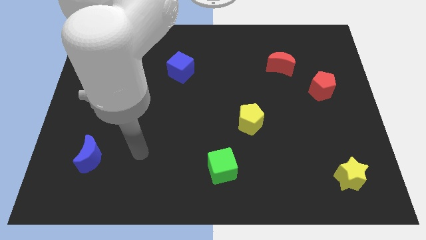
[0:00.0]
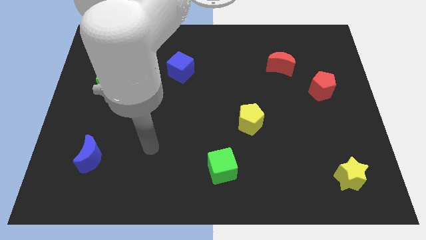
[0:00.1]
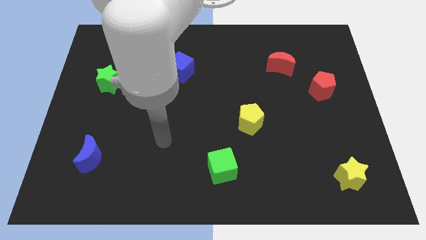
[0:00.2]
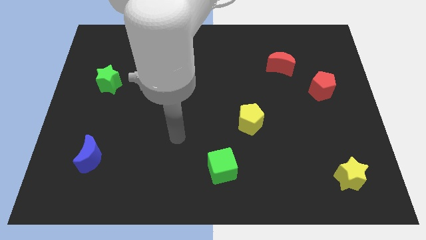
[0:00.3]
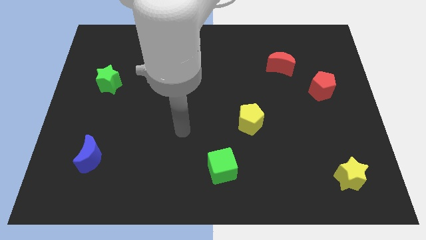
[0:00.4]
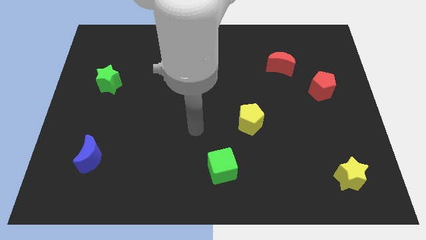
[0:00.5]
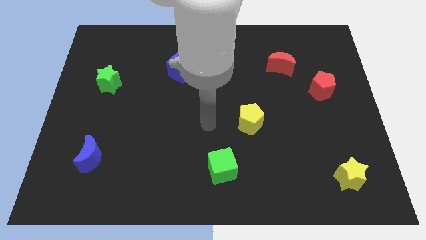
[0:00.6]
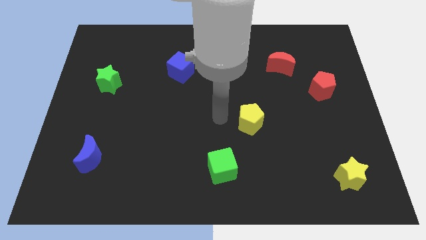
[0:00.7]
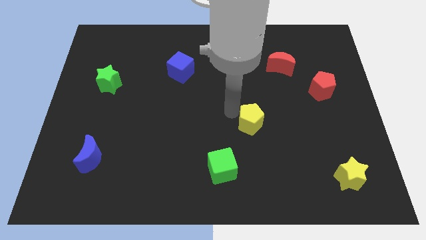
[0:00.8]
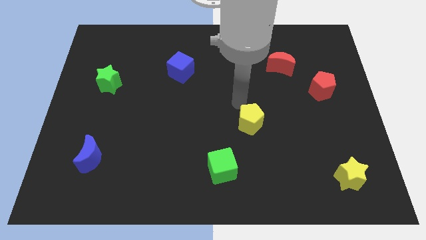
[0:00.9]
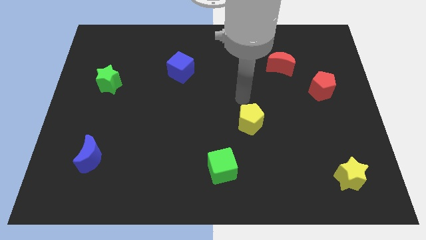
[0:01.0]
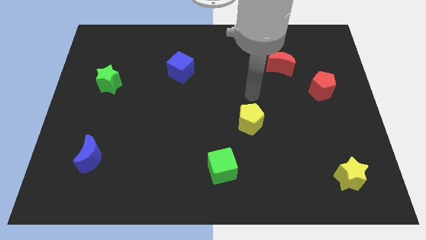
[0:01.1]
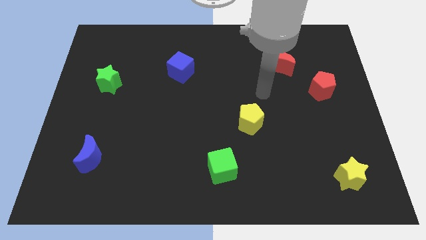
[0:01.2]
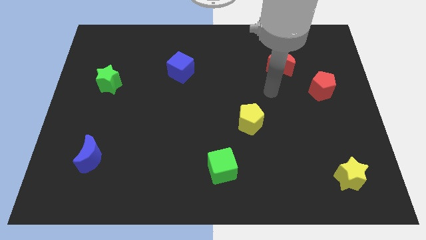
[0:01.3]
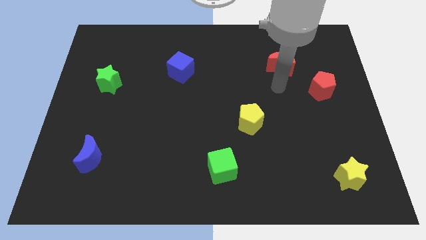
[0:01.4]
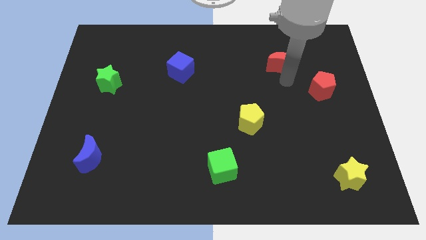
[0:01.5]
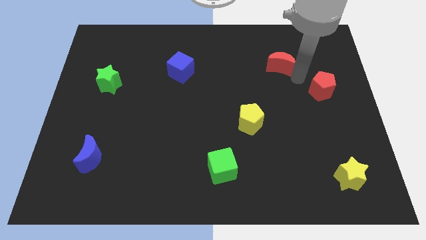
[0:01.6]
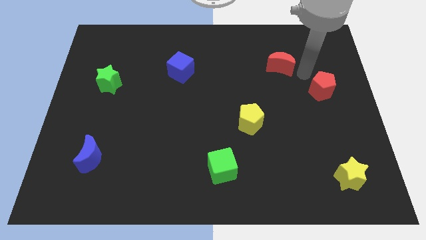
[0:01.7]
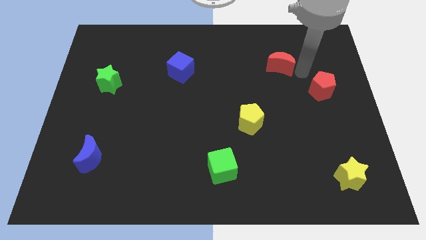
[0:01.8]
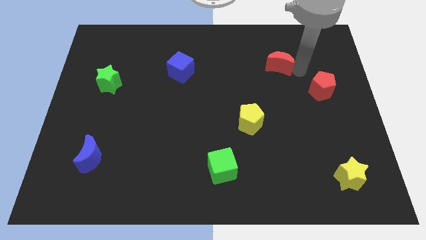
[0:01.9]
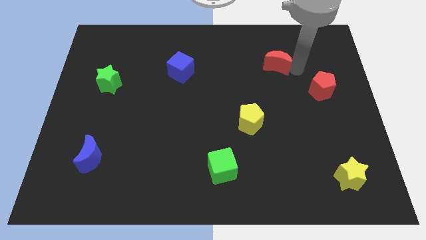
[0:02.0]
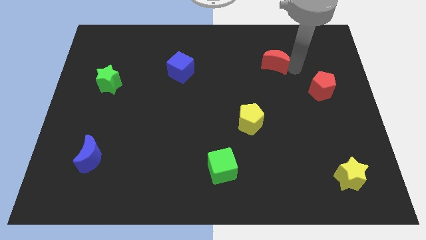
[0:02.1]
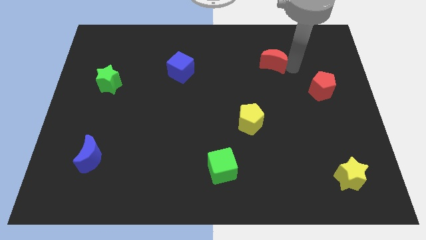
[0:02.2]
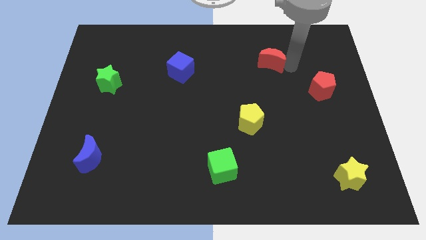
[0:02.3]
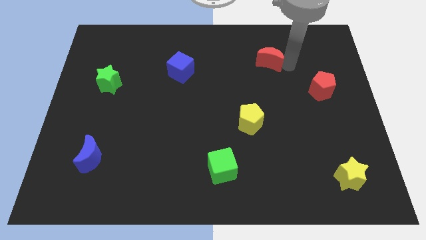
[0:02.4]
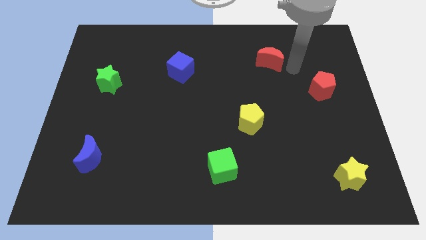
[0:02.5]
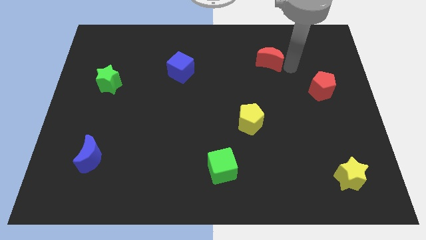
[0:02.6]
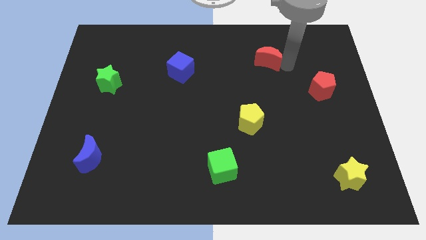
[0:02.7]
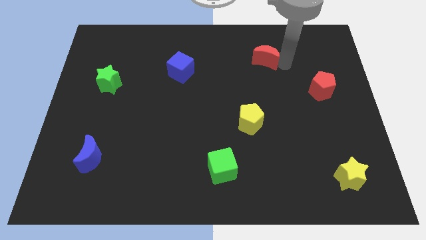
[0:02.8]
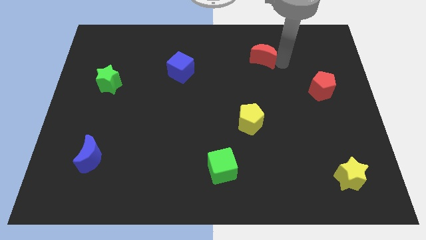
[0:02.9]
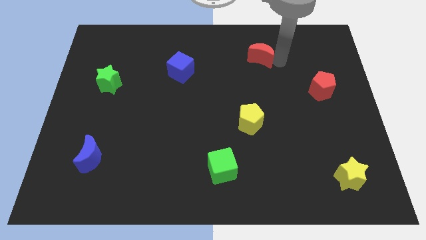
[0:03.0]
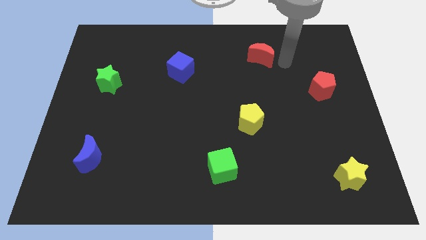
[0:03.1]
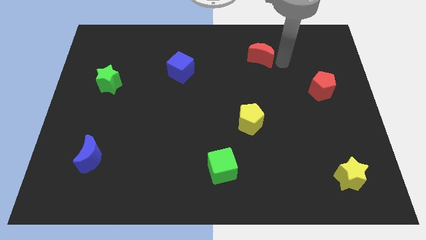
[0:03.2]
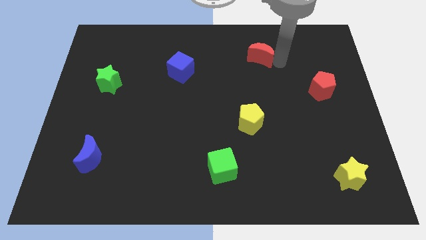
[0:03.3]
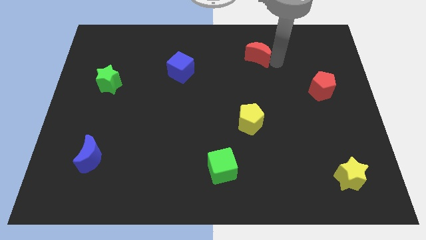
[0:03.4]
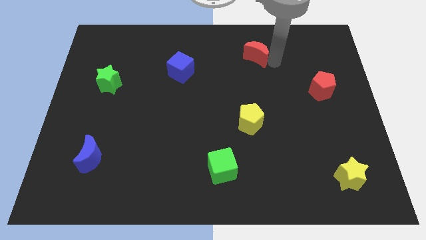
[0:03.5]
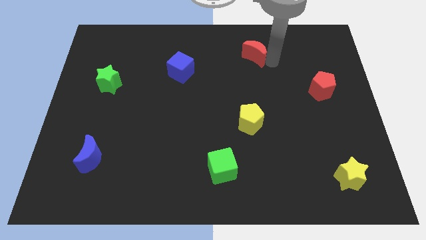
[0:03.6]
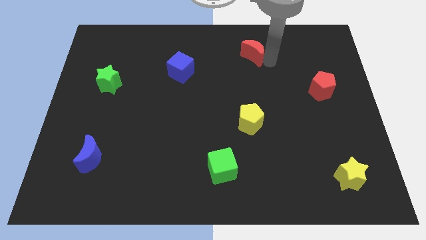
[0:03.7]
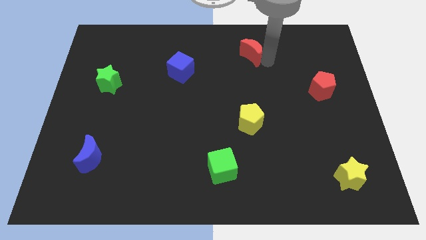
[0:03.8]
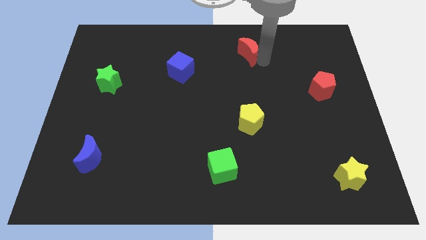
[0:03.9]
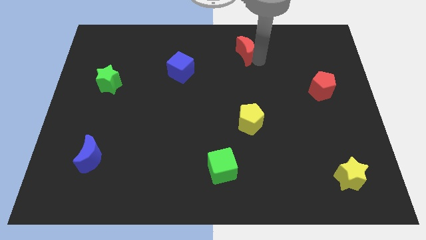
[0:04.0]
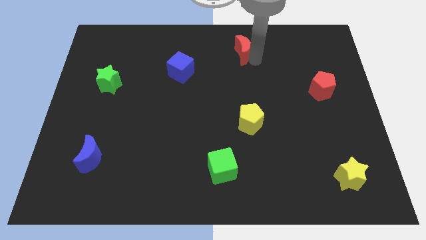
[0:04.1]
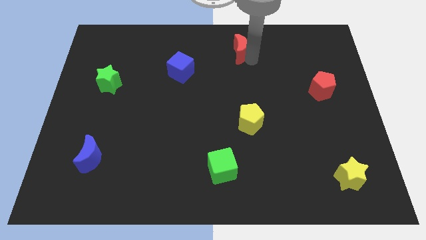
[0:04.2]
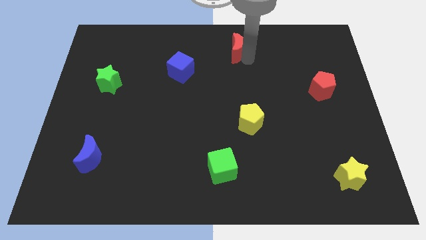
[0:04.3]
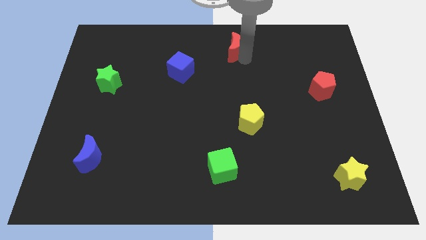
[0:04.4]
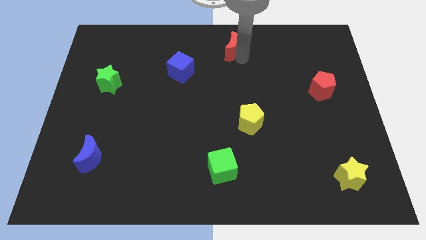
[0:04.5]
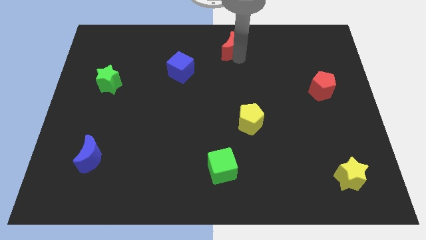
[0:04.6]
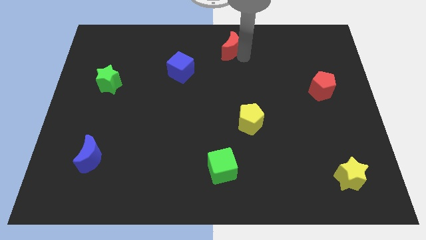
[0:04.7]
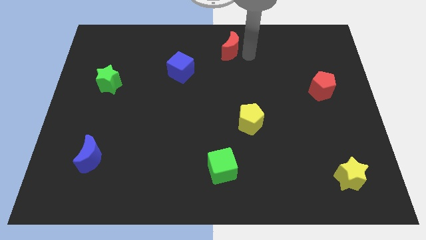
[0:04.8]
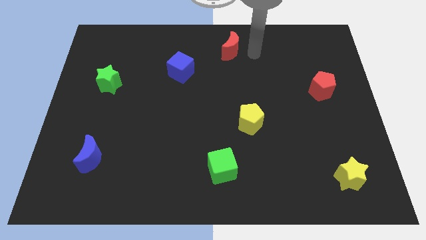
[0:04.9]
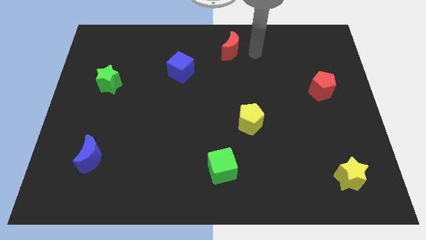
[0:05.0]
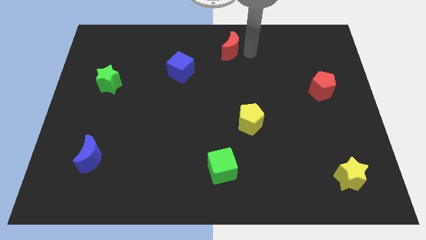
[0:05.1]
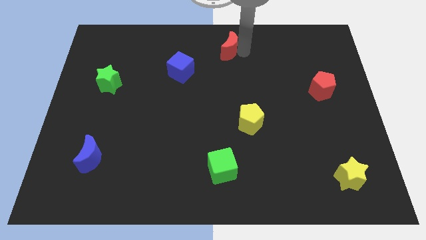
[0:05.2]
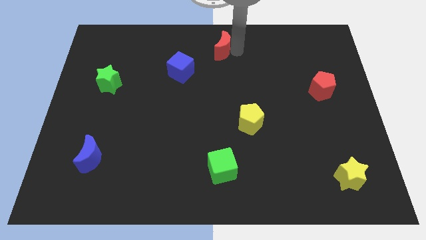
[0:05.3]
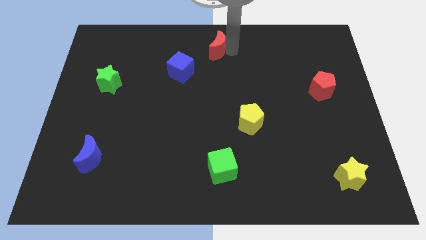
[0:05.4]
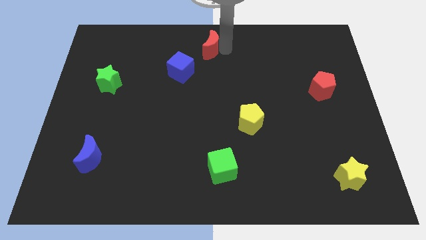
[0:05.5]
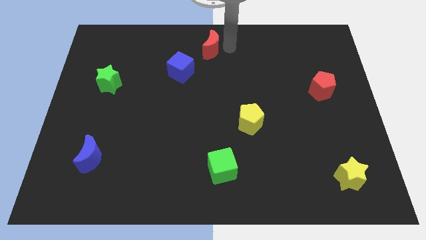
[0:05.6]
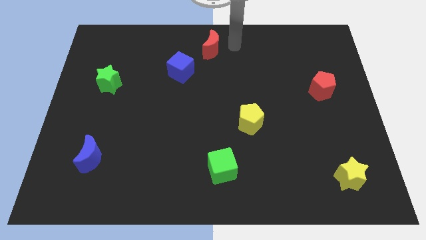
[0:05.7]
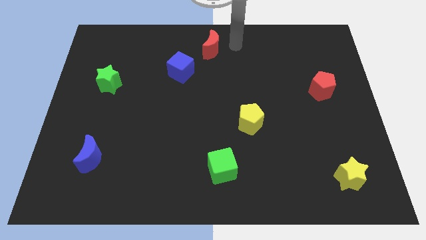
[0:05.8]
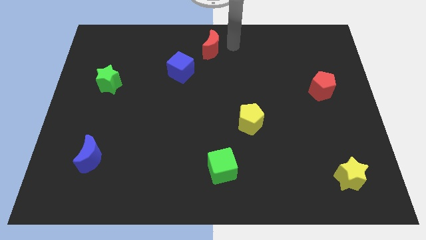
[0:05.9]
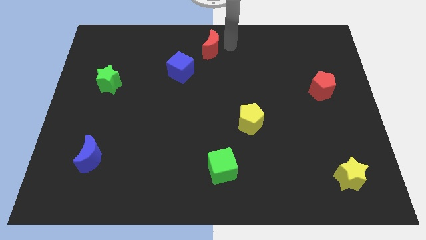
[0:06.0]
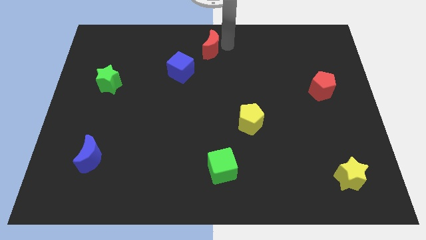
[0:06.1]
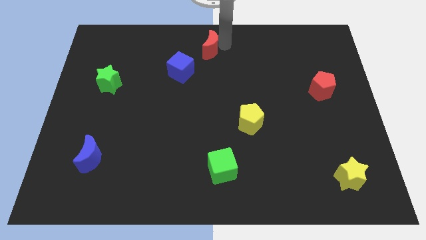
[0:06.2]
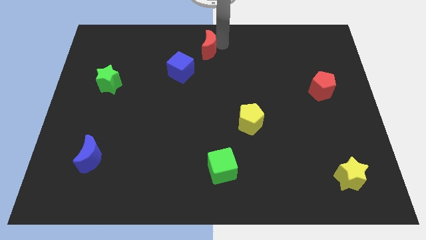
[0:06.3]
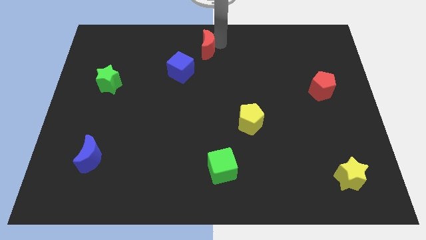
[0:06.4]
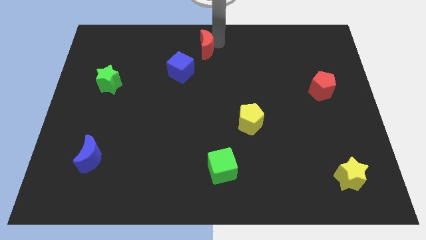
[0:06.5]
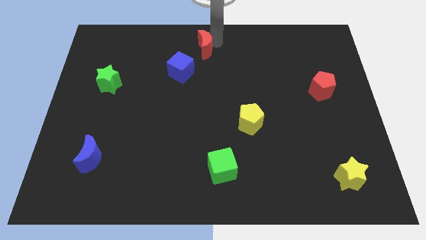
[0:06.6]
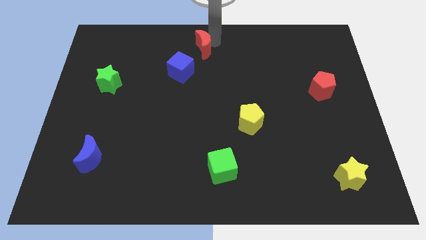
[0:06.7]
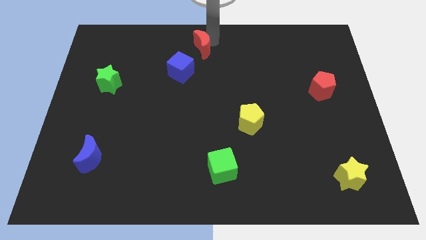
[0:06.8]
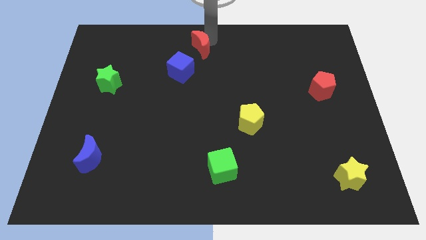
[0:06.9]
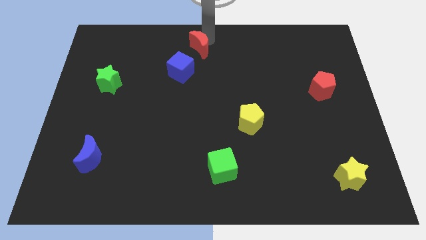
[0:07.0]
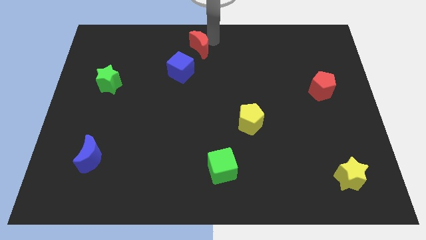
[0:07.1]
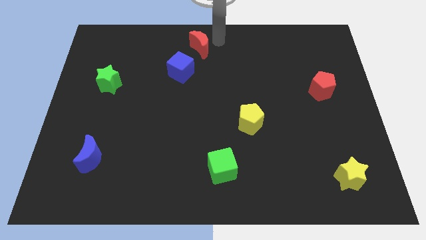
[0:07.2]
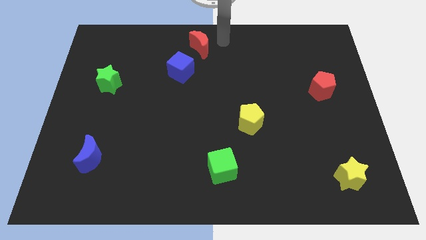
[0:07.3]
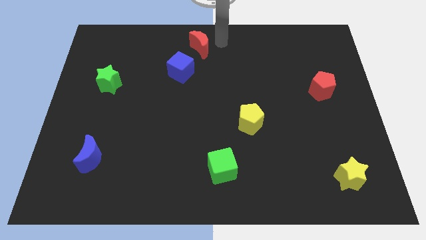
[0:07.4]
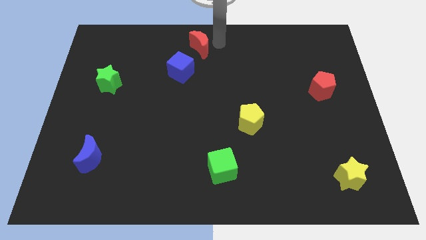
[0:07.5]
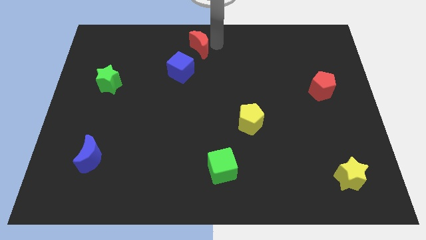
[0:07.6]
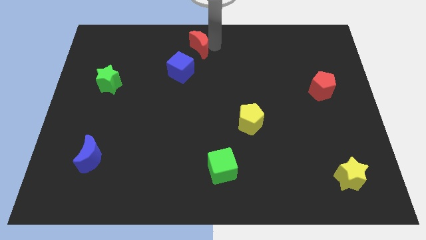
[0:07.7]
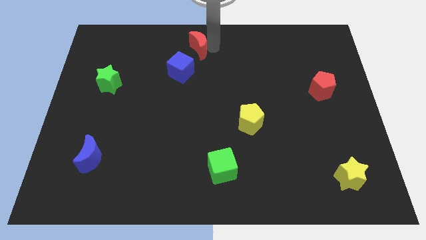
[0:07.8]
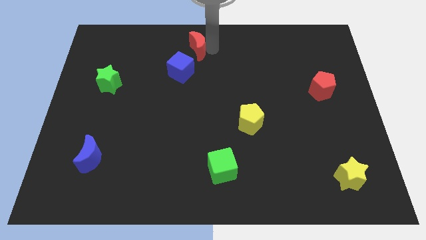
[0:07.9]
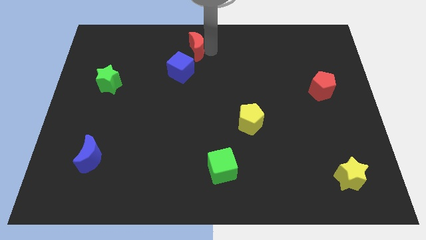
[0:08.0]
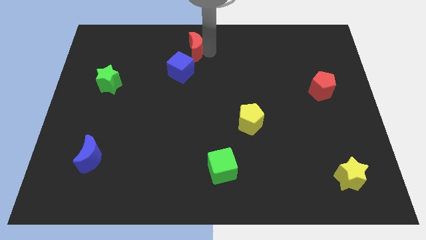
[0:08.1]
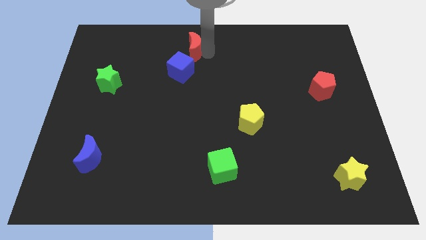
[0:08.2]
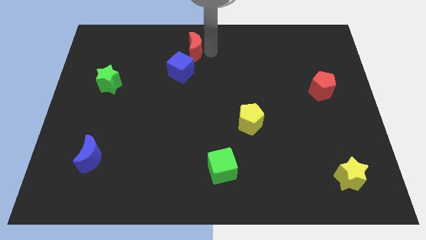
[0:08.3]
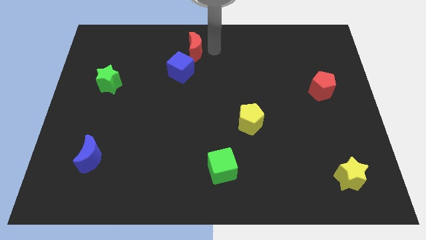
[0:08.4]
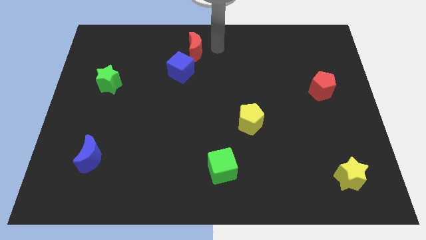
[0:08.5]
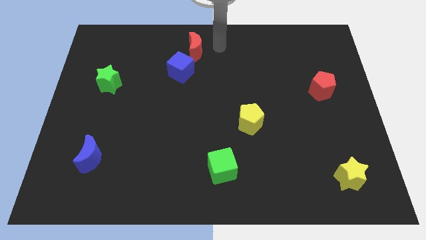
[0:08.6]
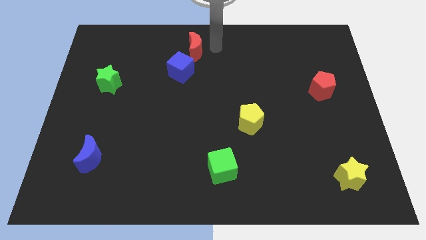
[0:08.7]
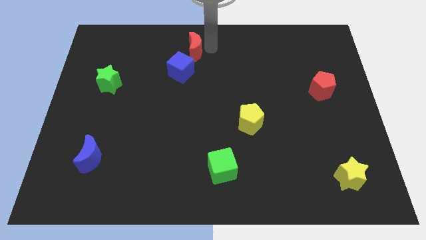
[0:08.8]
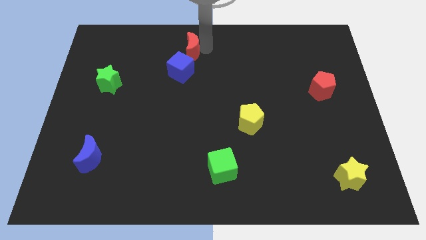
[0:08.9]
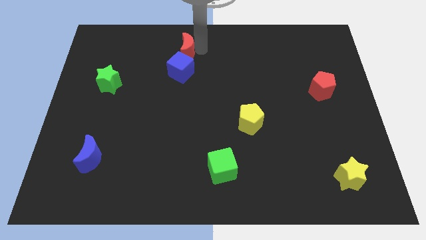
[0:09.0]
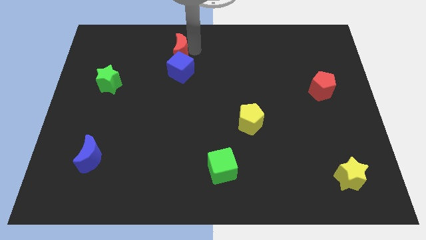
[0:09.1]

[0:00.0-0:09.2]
move the red moon to the top left side of the blue cube
